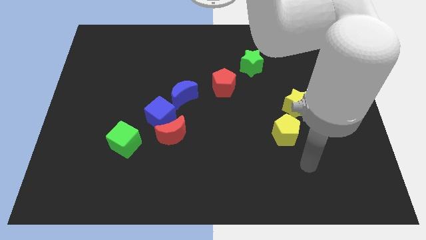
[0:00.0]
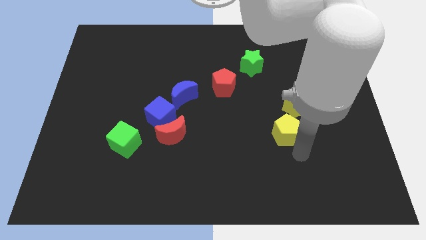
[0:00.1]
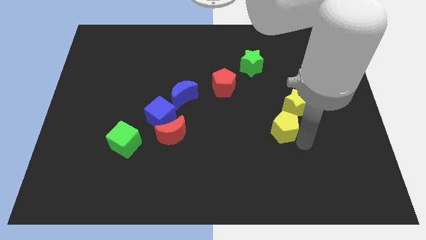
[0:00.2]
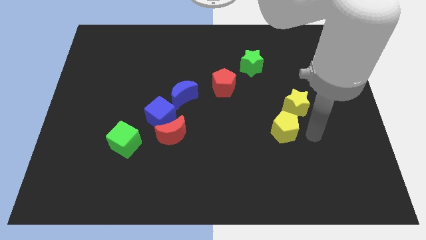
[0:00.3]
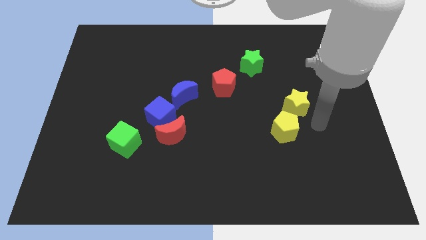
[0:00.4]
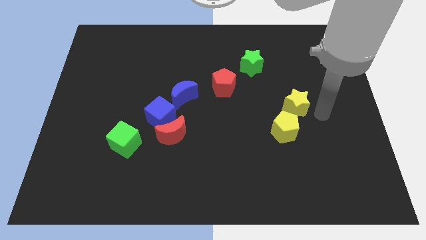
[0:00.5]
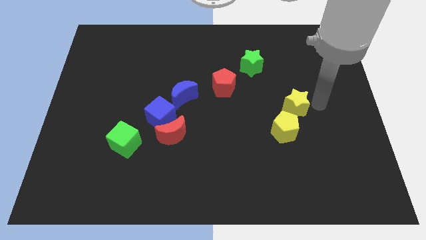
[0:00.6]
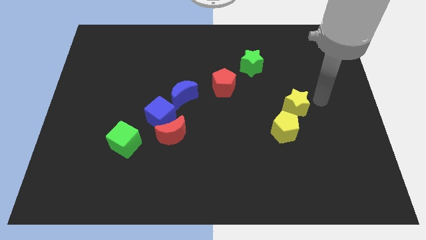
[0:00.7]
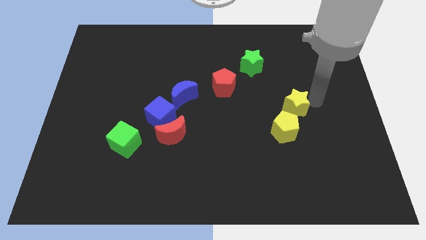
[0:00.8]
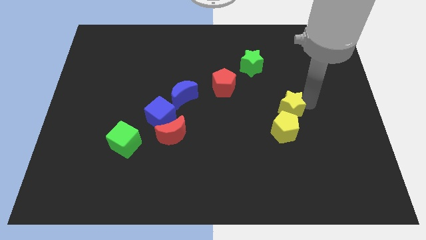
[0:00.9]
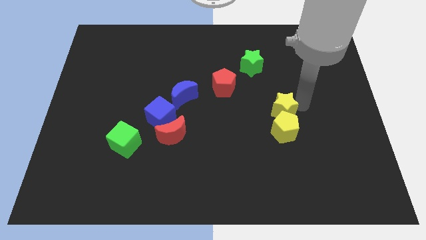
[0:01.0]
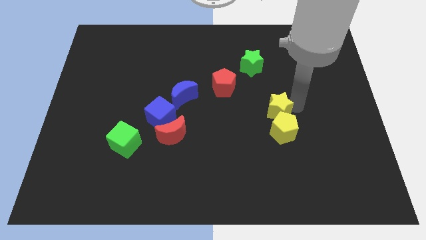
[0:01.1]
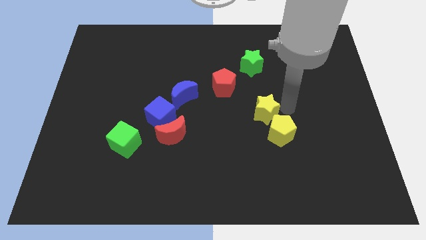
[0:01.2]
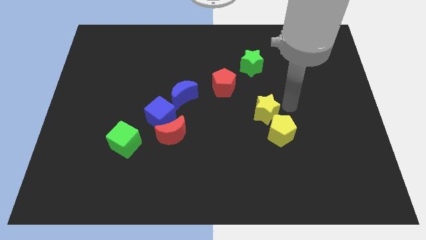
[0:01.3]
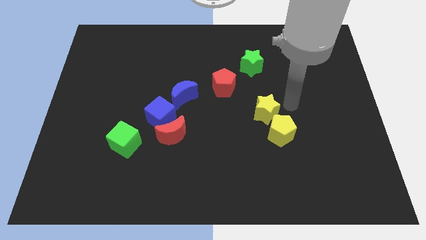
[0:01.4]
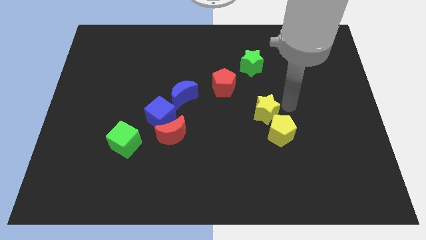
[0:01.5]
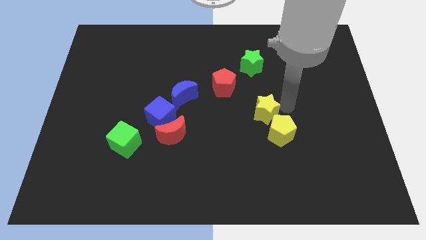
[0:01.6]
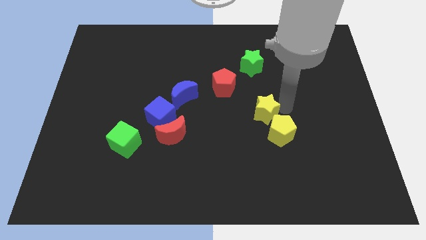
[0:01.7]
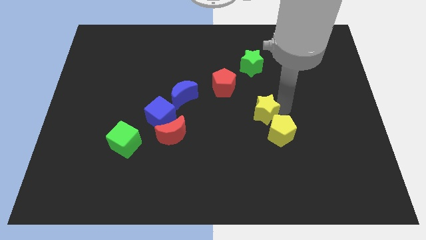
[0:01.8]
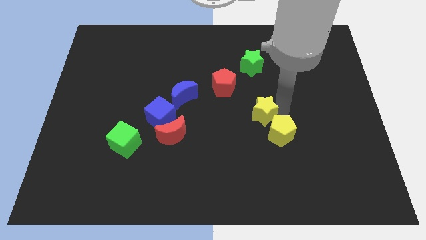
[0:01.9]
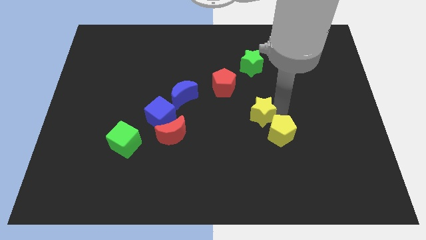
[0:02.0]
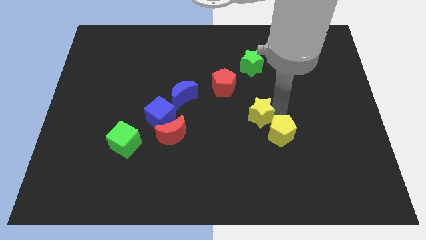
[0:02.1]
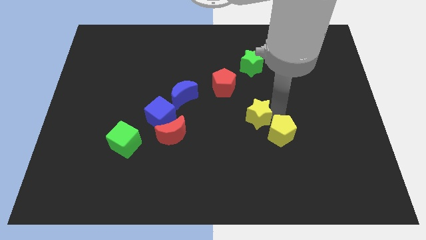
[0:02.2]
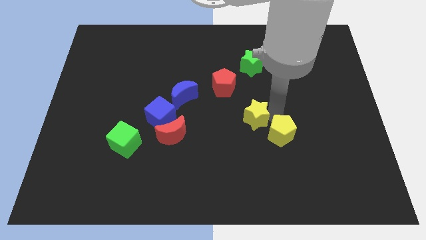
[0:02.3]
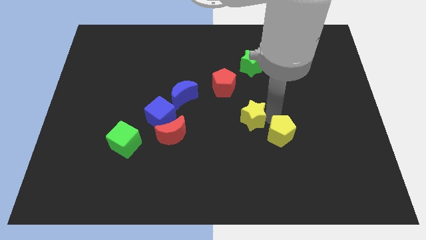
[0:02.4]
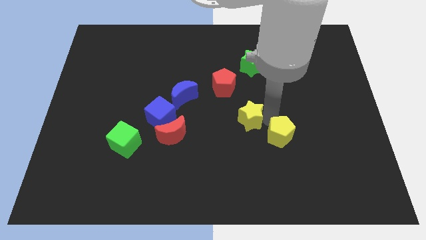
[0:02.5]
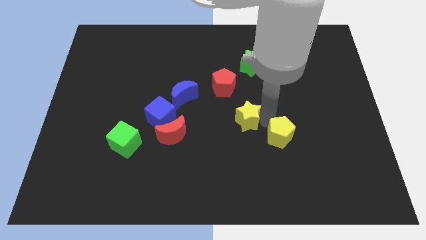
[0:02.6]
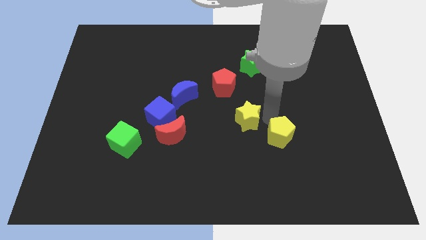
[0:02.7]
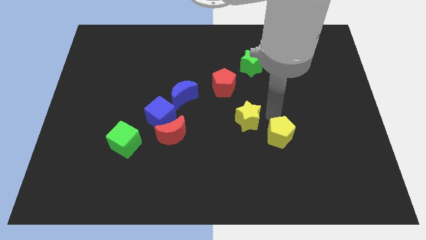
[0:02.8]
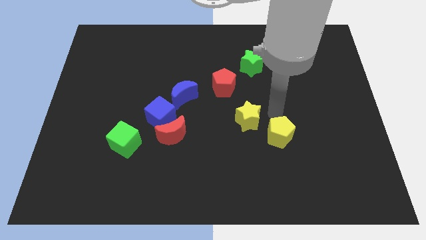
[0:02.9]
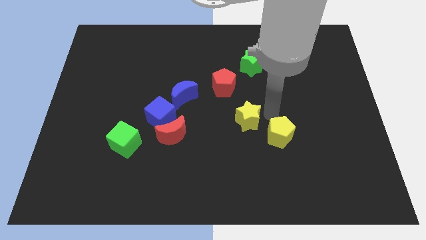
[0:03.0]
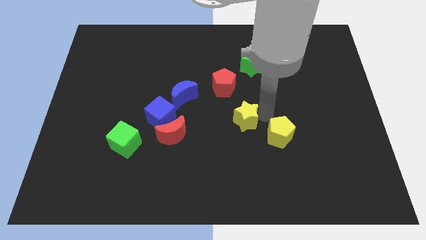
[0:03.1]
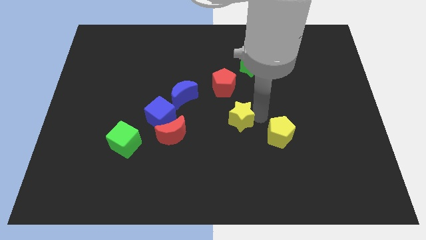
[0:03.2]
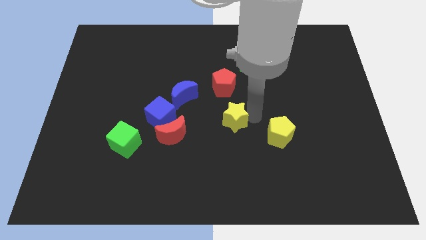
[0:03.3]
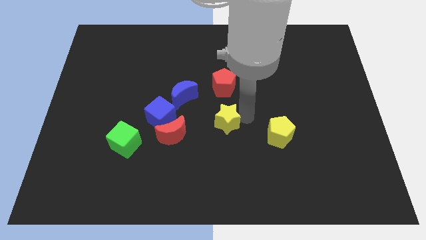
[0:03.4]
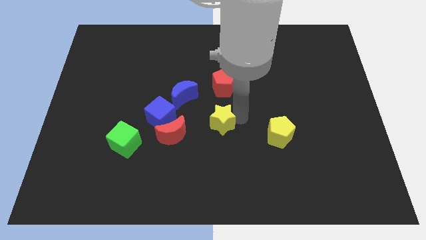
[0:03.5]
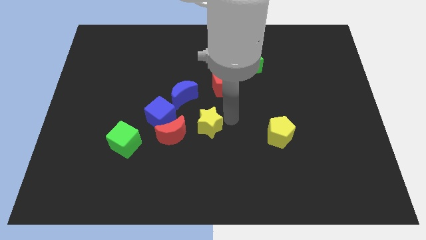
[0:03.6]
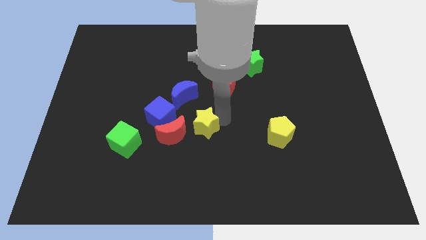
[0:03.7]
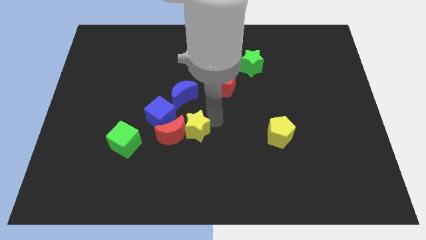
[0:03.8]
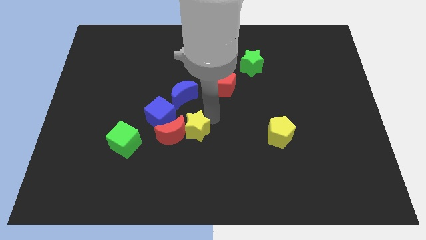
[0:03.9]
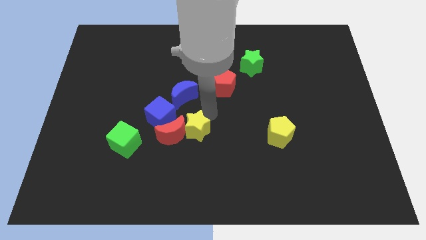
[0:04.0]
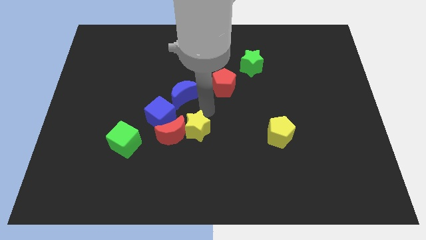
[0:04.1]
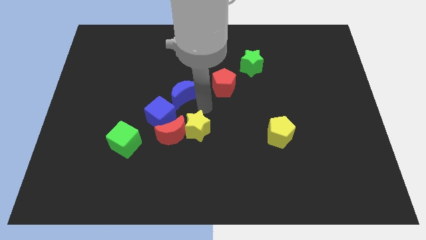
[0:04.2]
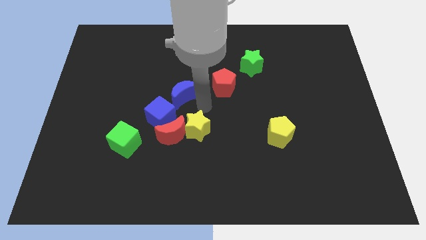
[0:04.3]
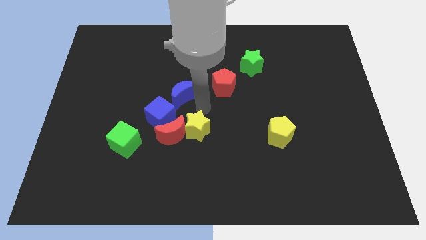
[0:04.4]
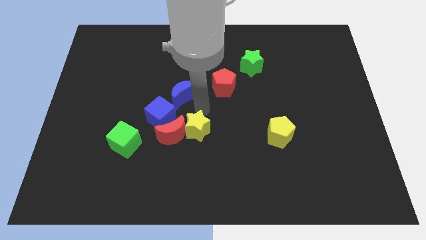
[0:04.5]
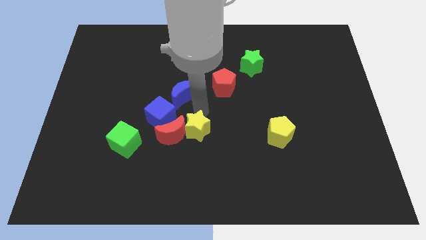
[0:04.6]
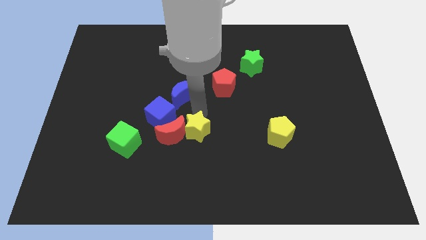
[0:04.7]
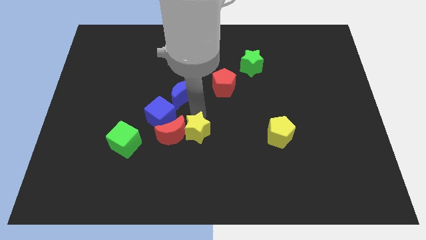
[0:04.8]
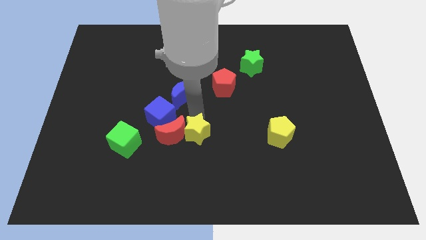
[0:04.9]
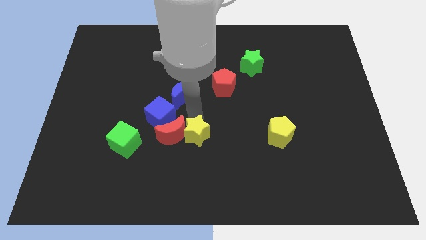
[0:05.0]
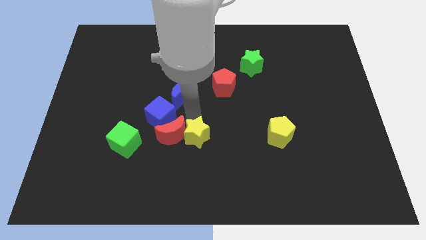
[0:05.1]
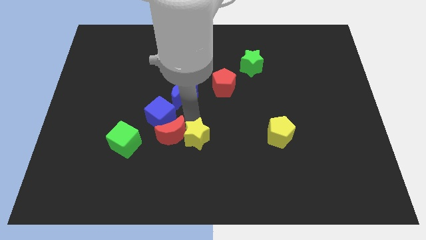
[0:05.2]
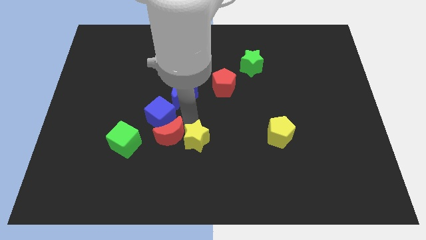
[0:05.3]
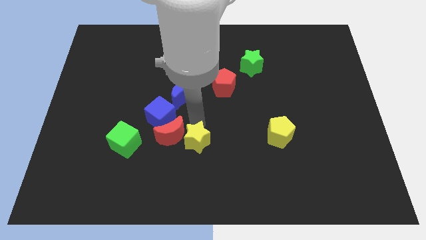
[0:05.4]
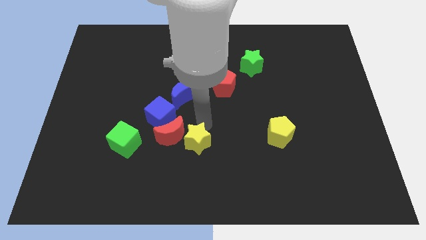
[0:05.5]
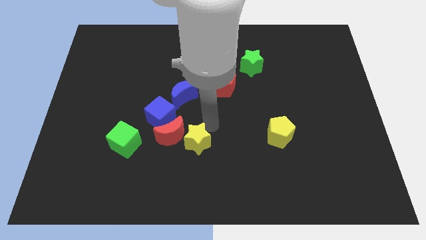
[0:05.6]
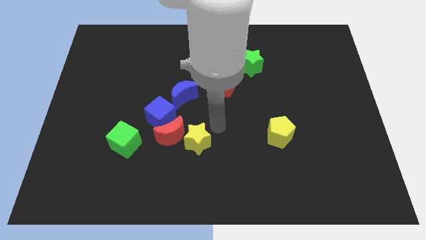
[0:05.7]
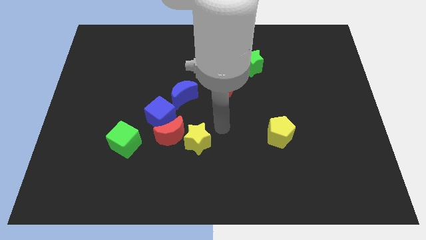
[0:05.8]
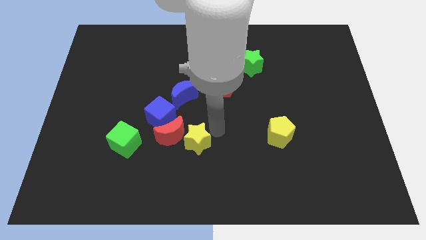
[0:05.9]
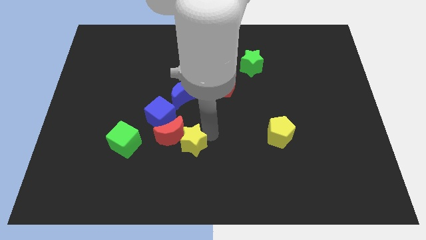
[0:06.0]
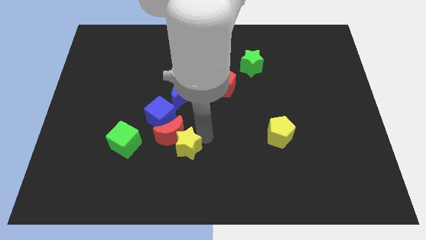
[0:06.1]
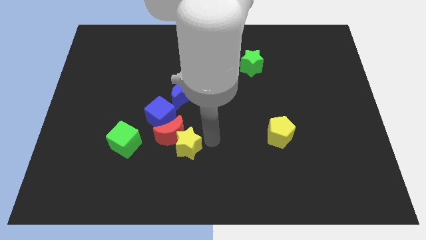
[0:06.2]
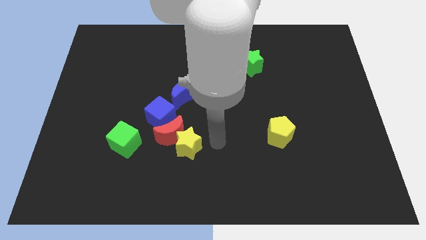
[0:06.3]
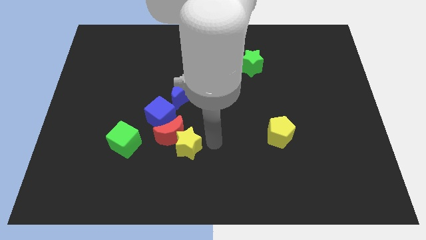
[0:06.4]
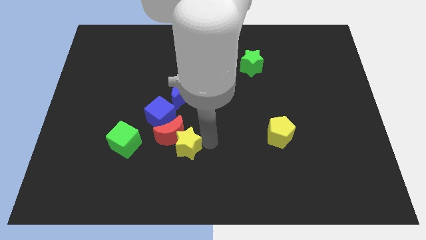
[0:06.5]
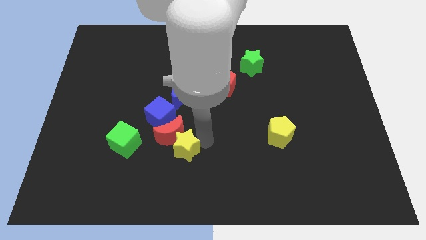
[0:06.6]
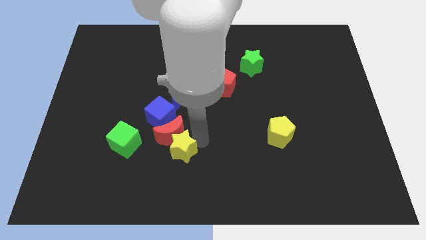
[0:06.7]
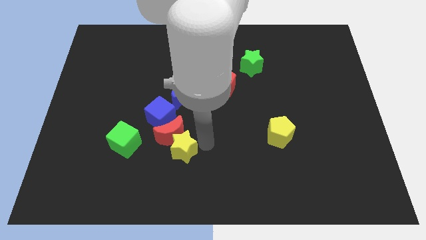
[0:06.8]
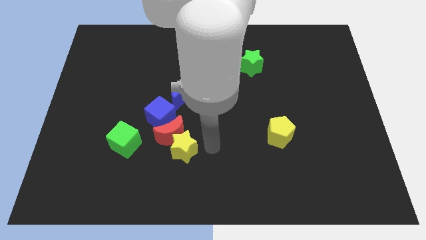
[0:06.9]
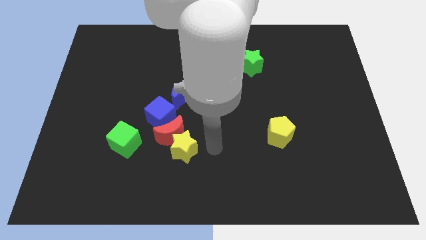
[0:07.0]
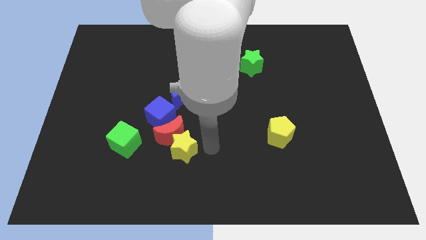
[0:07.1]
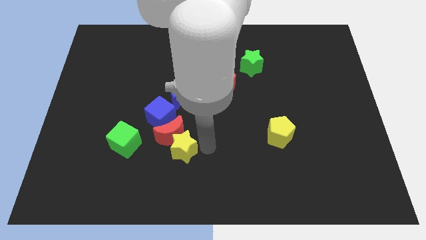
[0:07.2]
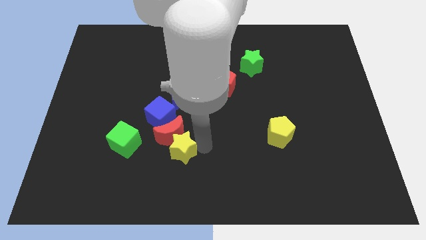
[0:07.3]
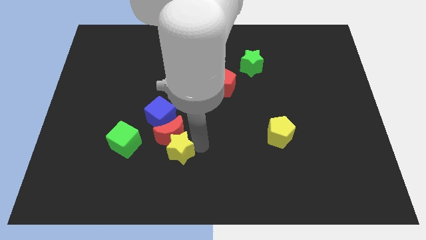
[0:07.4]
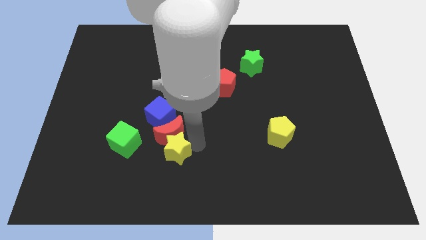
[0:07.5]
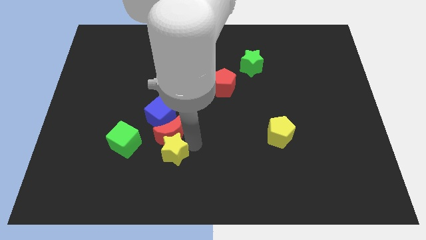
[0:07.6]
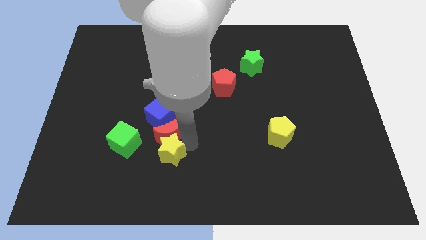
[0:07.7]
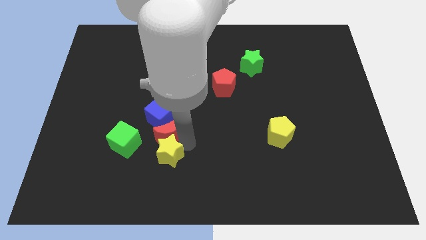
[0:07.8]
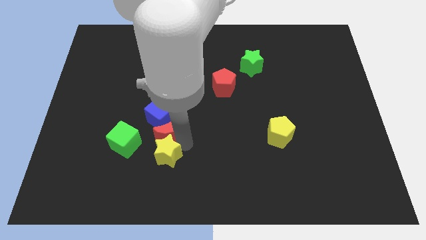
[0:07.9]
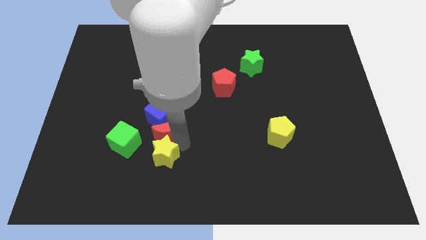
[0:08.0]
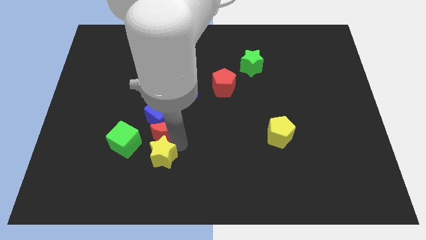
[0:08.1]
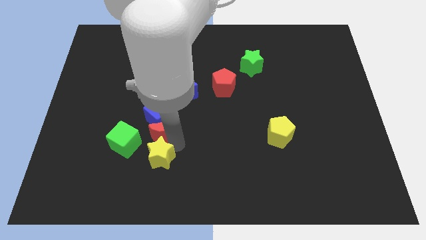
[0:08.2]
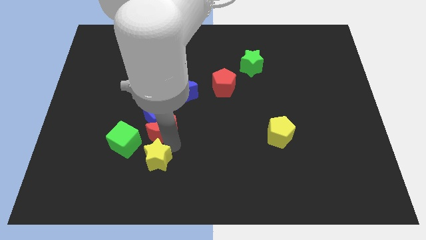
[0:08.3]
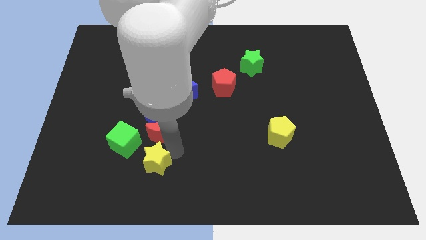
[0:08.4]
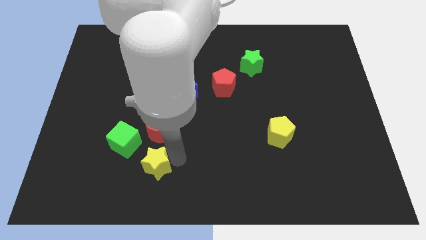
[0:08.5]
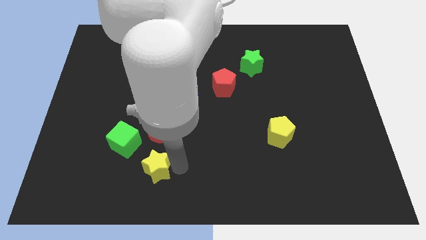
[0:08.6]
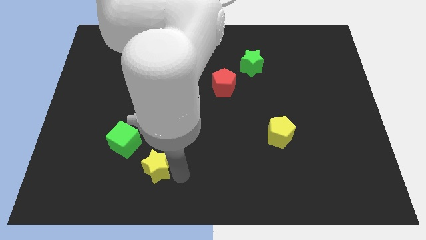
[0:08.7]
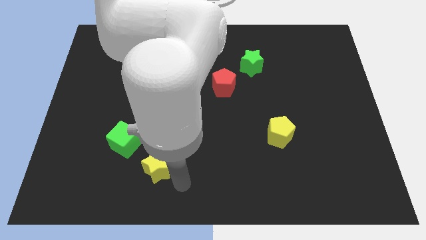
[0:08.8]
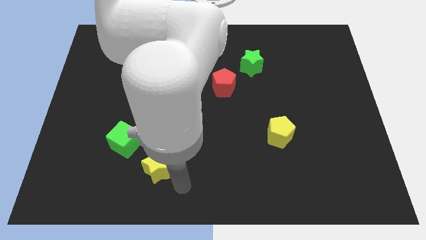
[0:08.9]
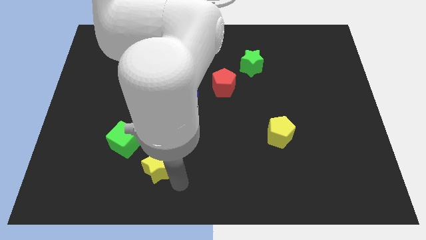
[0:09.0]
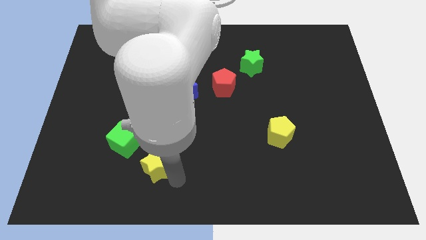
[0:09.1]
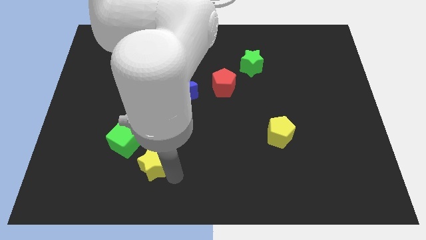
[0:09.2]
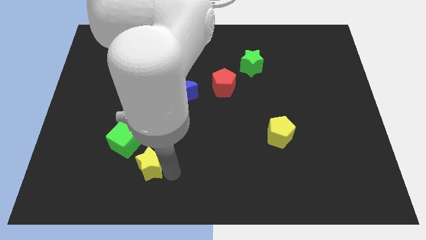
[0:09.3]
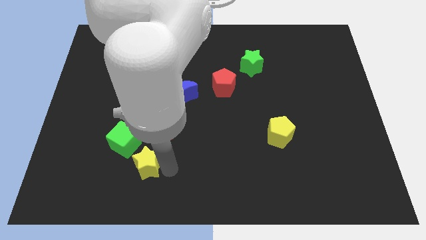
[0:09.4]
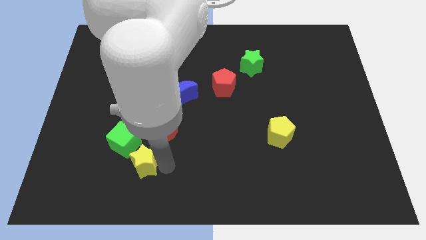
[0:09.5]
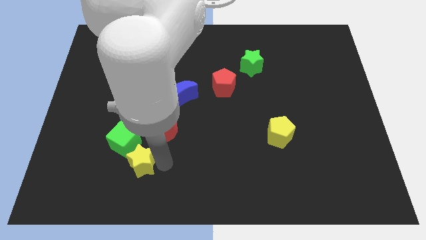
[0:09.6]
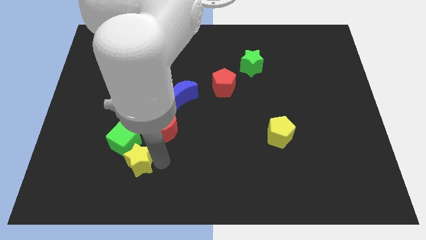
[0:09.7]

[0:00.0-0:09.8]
slide the yellow star close to the green cube
